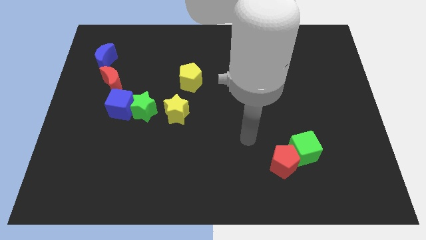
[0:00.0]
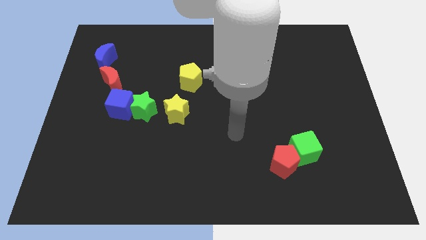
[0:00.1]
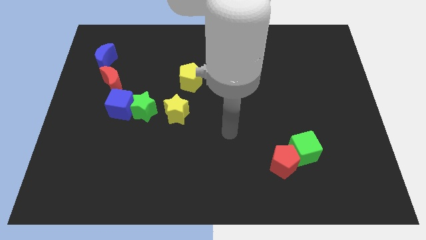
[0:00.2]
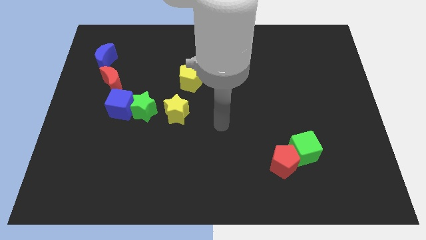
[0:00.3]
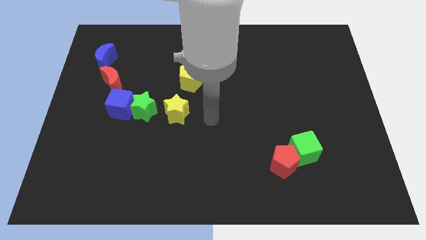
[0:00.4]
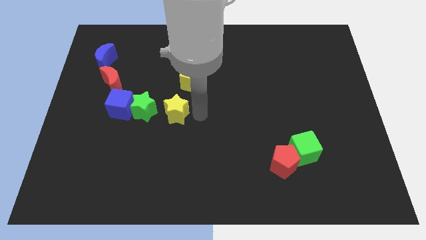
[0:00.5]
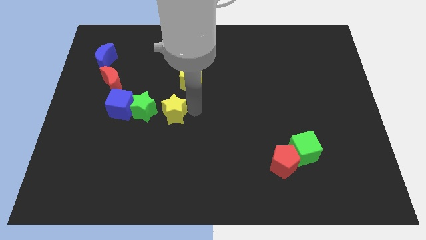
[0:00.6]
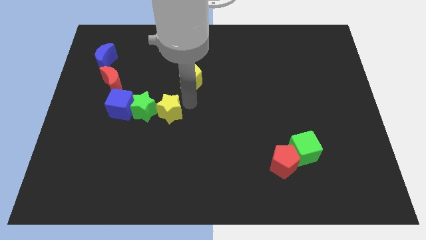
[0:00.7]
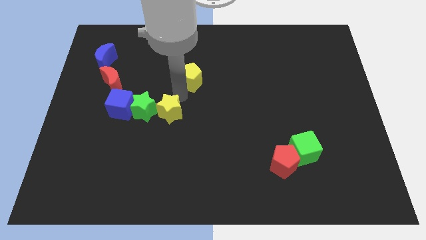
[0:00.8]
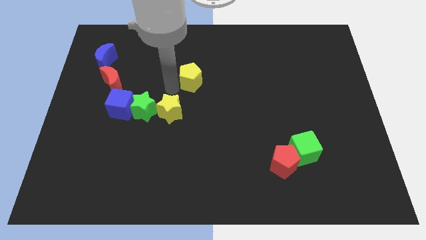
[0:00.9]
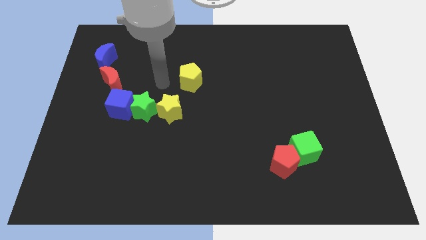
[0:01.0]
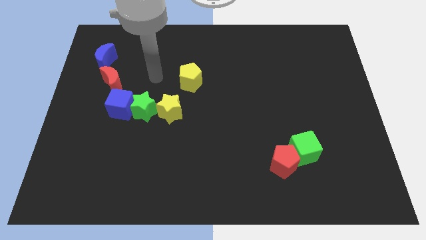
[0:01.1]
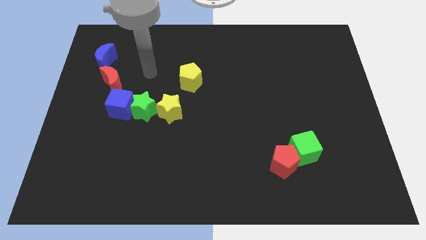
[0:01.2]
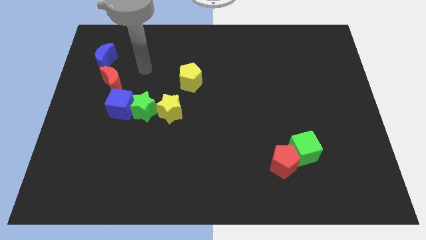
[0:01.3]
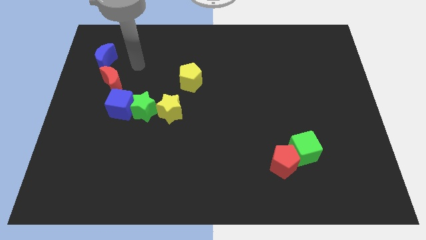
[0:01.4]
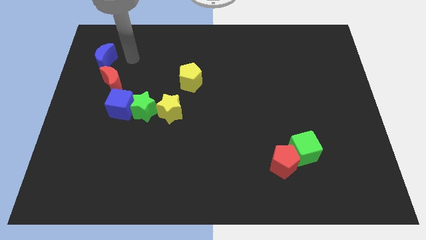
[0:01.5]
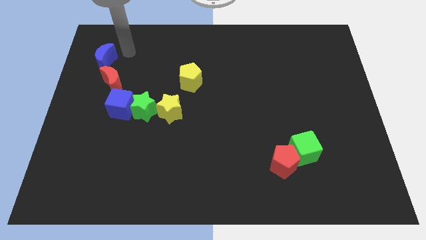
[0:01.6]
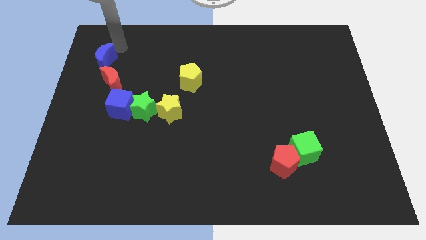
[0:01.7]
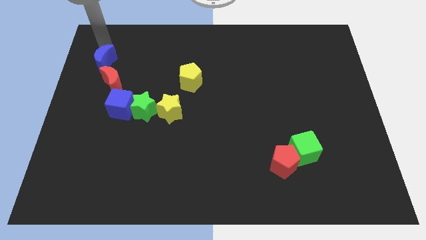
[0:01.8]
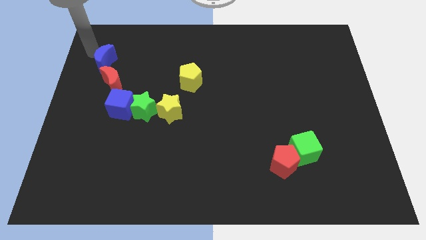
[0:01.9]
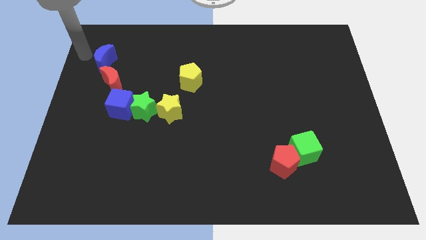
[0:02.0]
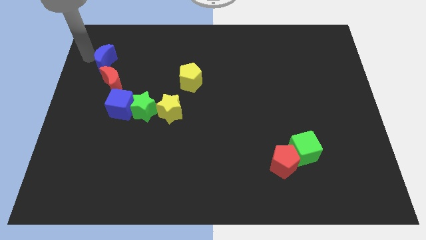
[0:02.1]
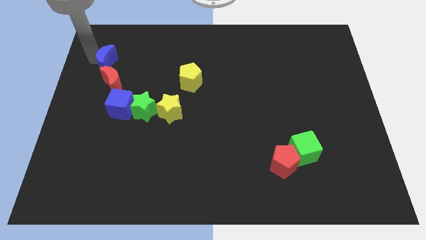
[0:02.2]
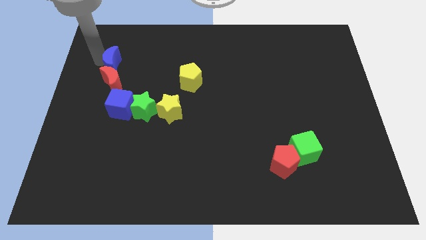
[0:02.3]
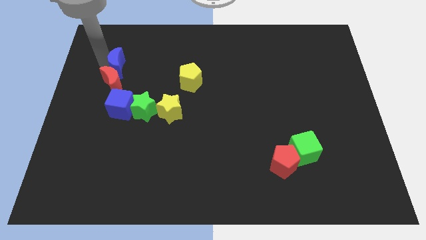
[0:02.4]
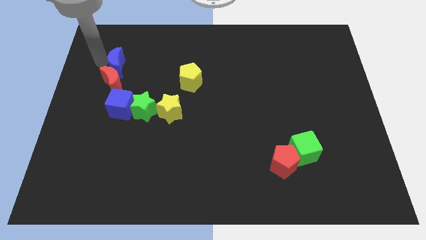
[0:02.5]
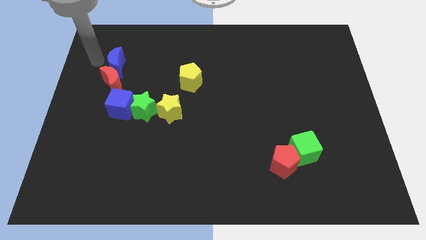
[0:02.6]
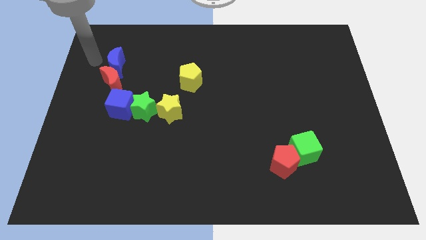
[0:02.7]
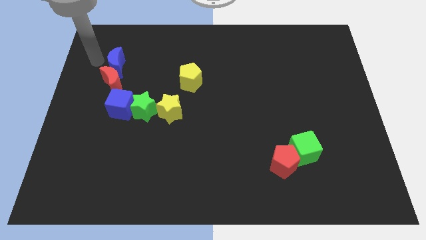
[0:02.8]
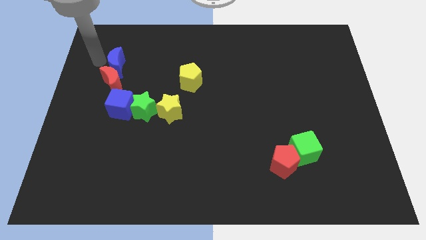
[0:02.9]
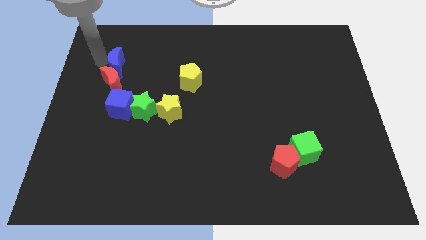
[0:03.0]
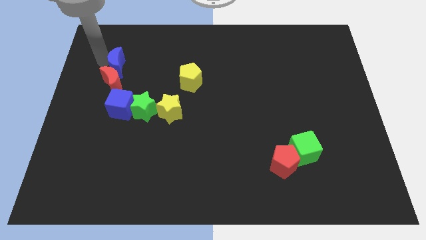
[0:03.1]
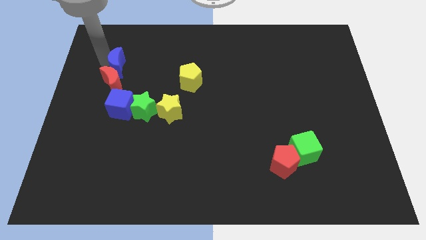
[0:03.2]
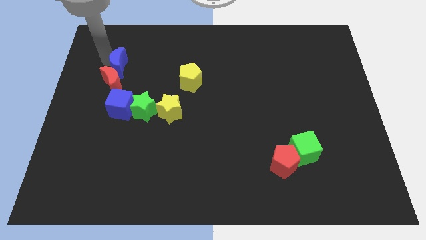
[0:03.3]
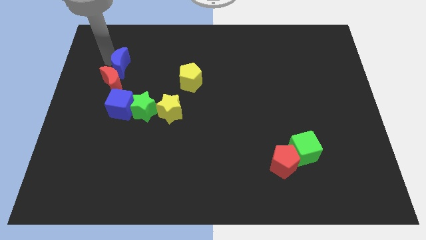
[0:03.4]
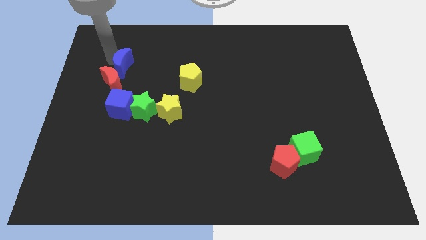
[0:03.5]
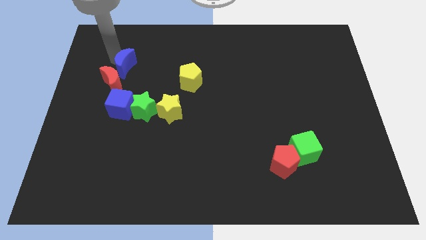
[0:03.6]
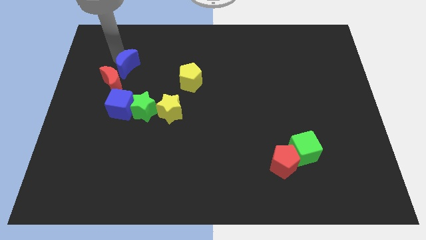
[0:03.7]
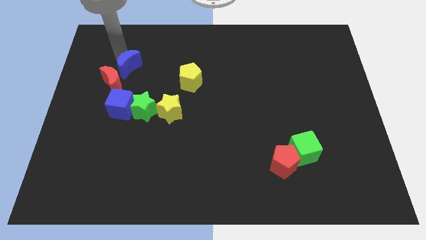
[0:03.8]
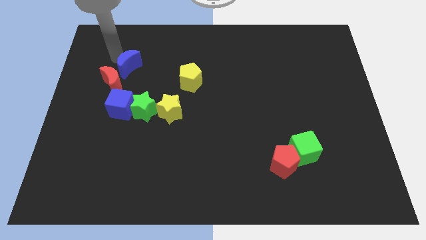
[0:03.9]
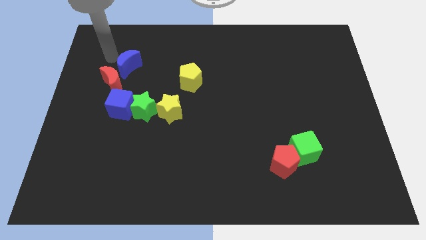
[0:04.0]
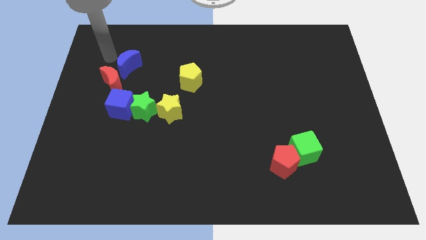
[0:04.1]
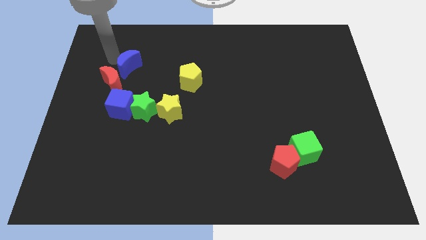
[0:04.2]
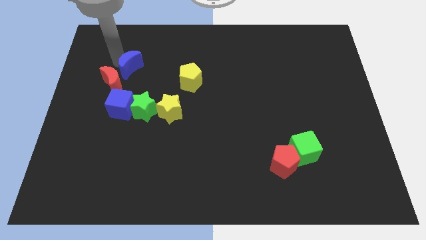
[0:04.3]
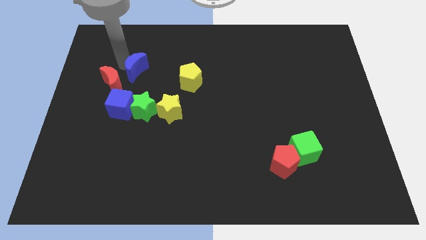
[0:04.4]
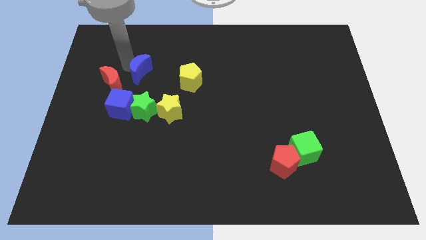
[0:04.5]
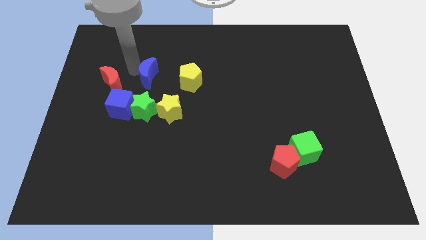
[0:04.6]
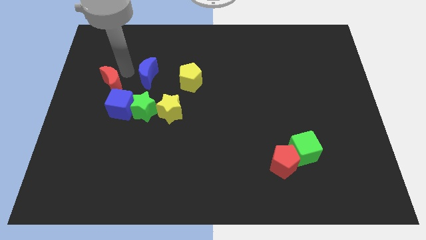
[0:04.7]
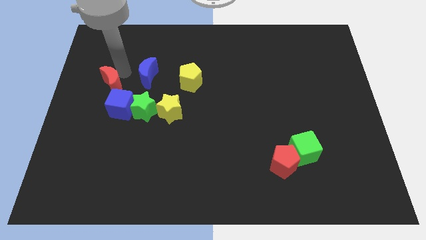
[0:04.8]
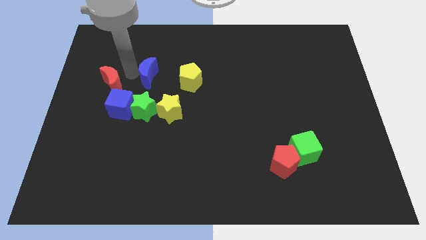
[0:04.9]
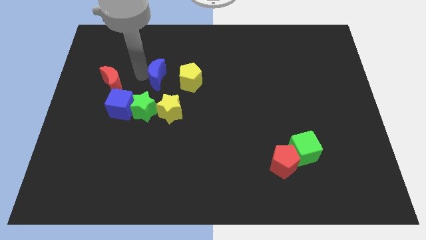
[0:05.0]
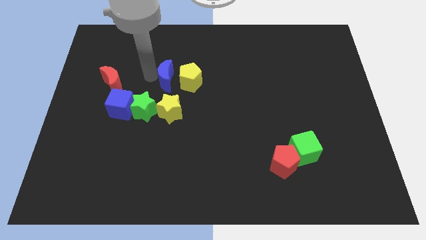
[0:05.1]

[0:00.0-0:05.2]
slide the blue moon towards the yellow pentagon

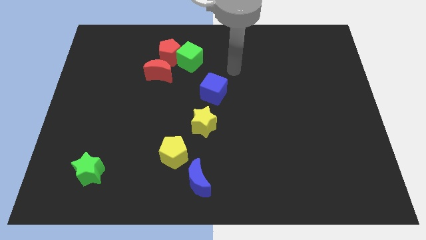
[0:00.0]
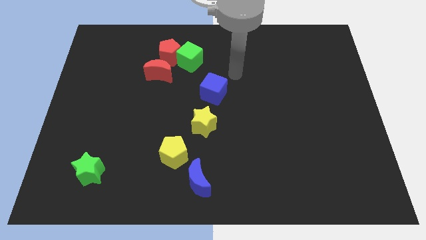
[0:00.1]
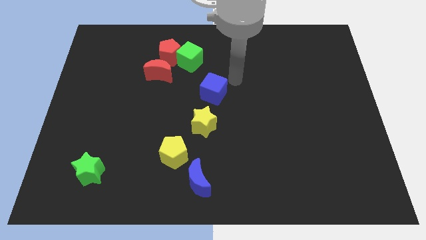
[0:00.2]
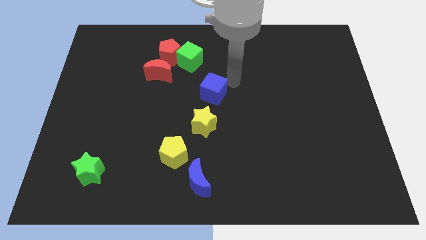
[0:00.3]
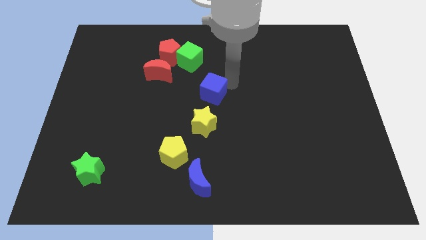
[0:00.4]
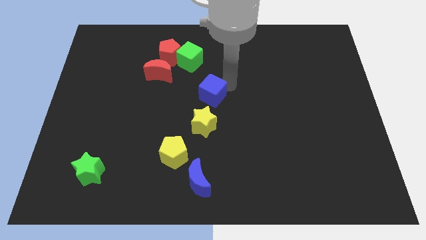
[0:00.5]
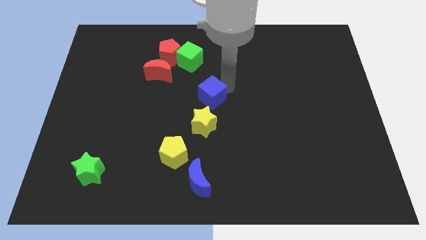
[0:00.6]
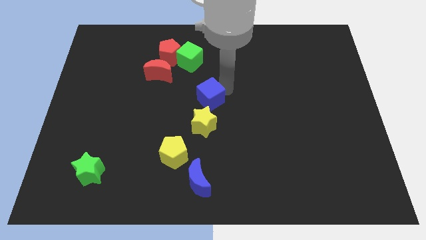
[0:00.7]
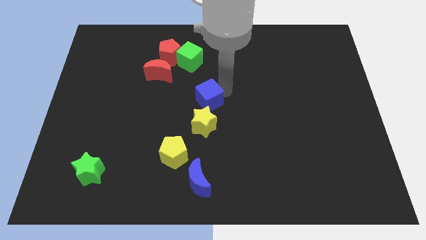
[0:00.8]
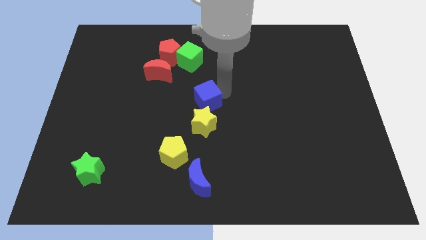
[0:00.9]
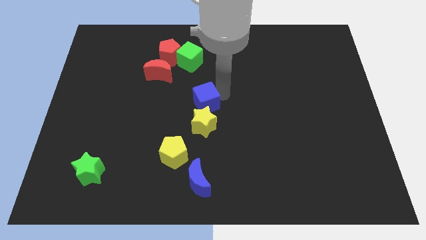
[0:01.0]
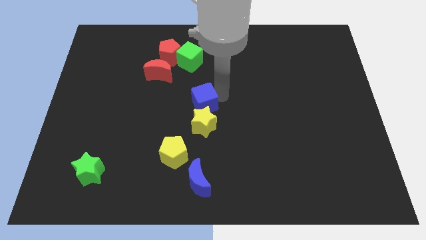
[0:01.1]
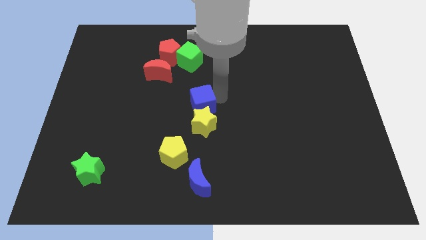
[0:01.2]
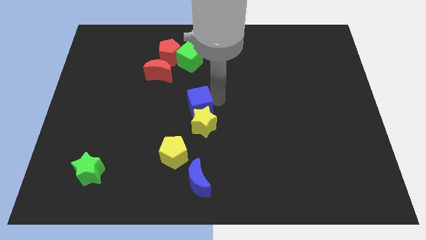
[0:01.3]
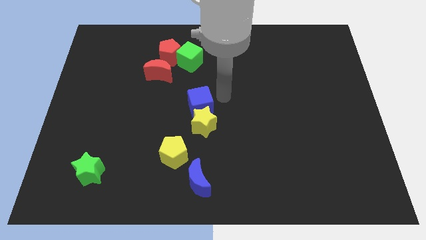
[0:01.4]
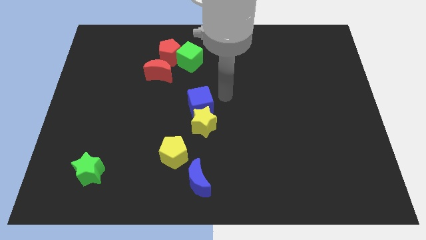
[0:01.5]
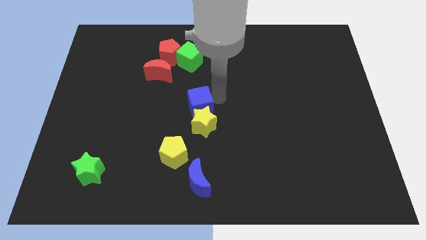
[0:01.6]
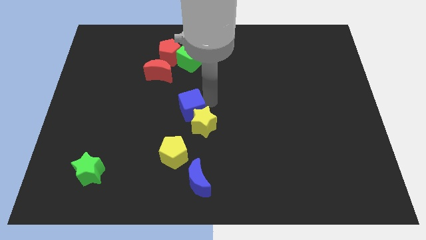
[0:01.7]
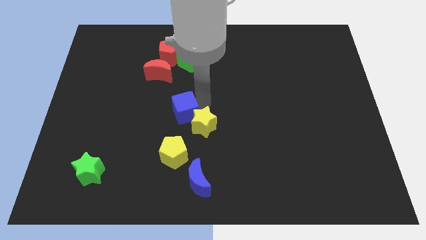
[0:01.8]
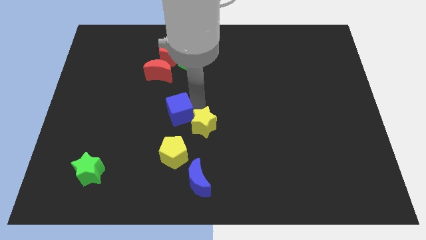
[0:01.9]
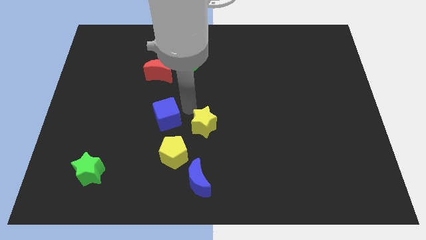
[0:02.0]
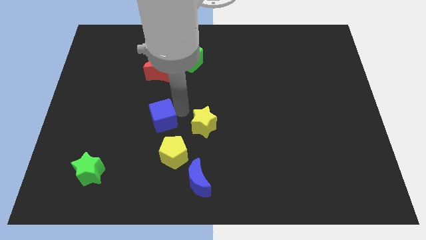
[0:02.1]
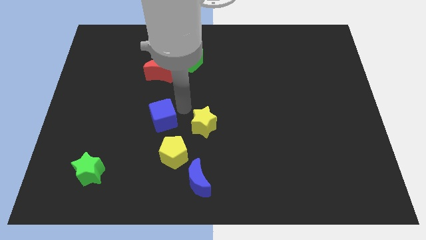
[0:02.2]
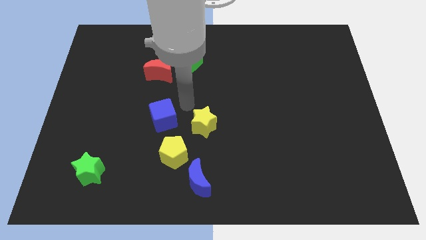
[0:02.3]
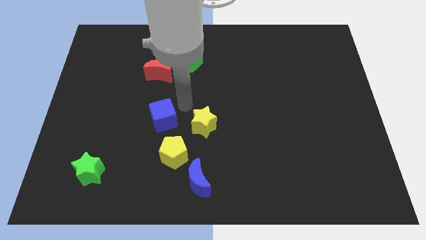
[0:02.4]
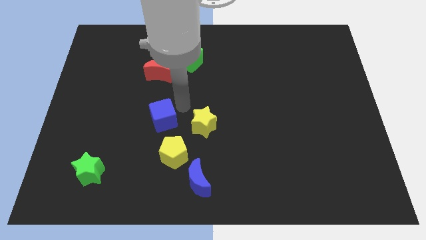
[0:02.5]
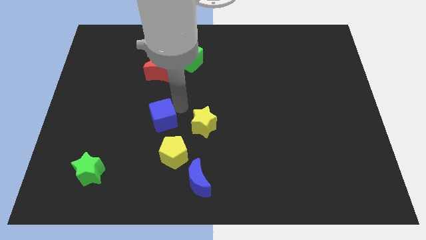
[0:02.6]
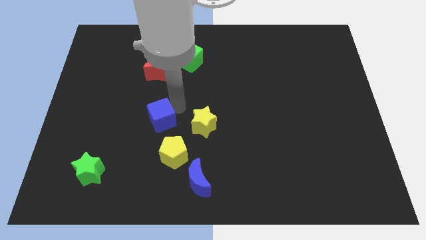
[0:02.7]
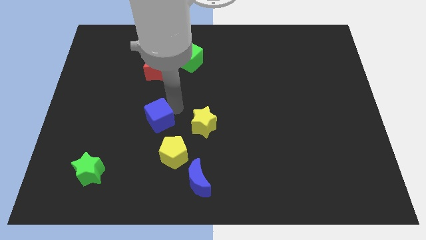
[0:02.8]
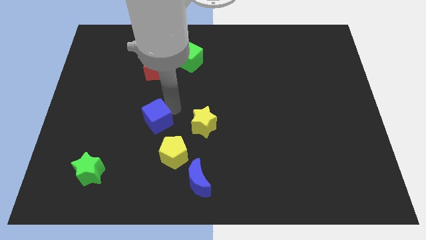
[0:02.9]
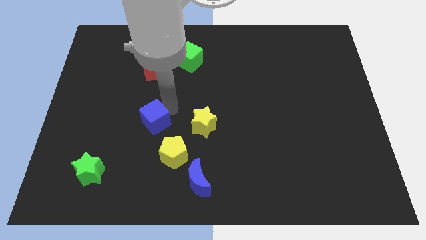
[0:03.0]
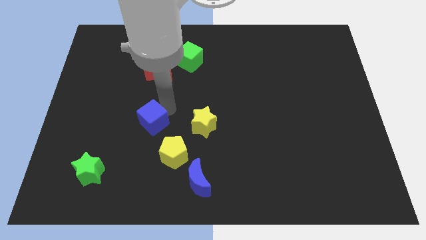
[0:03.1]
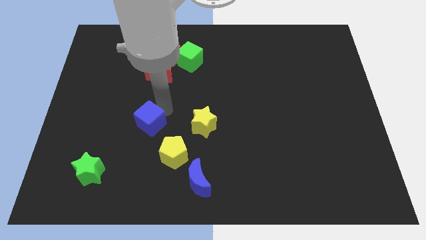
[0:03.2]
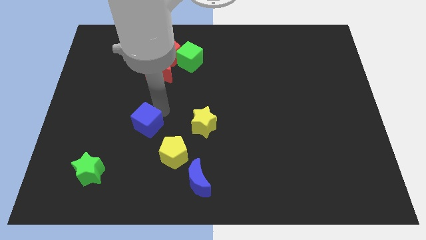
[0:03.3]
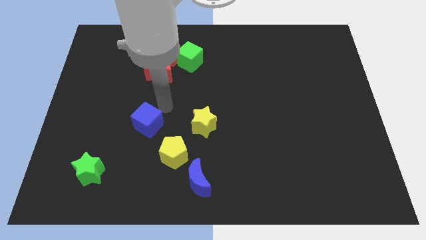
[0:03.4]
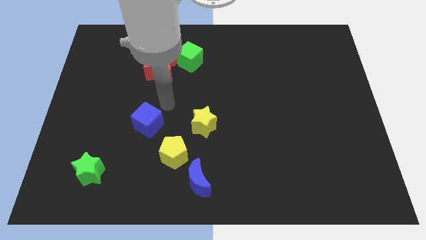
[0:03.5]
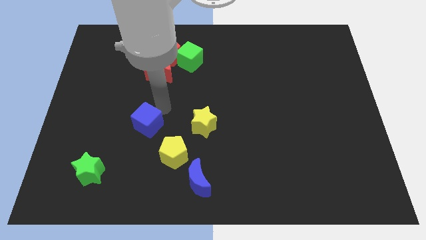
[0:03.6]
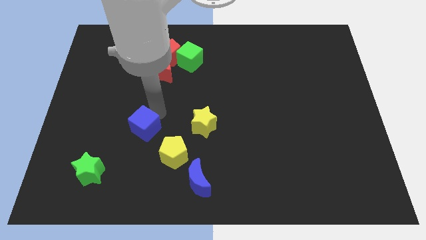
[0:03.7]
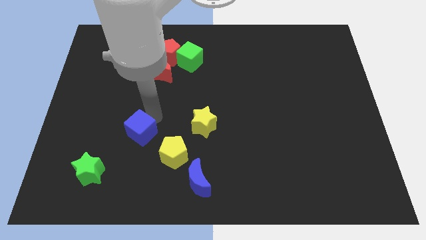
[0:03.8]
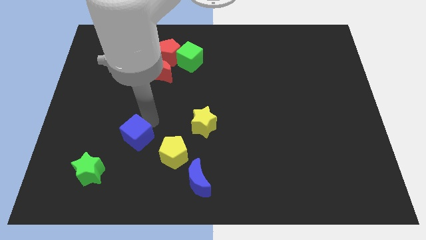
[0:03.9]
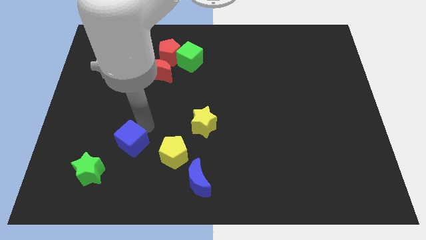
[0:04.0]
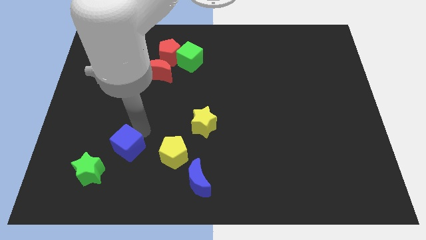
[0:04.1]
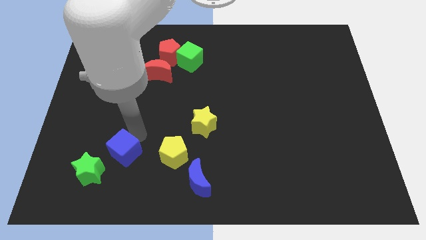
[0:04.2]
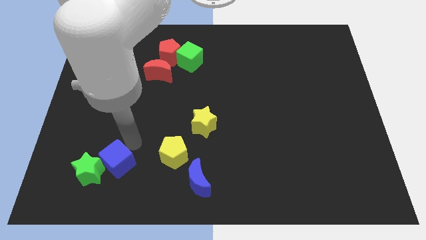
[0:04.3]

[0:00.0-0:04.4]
move the blue cube next to the green star
